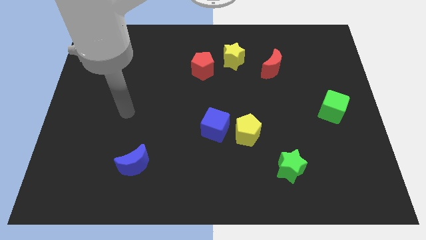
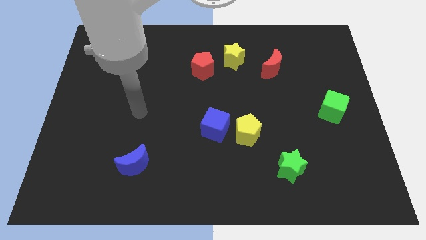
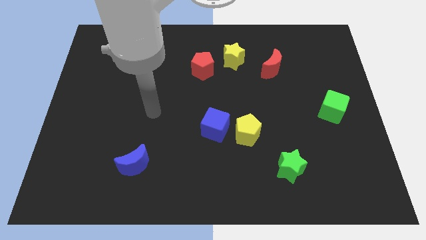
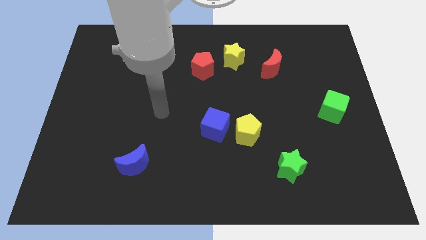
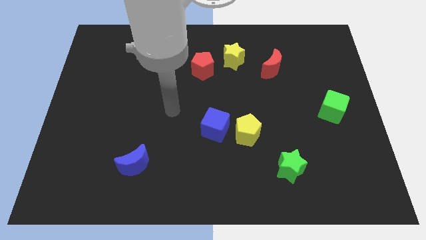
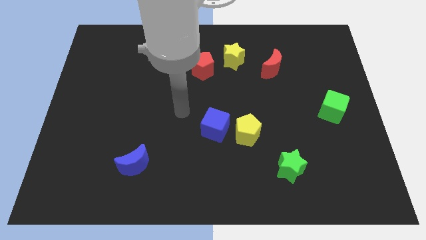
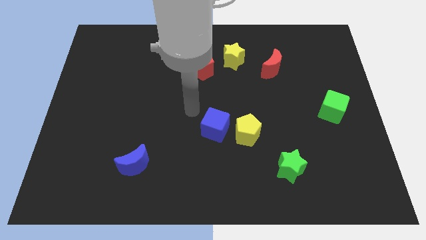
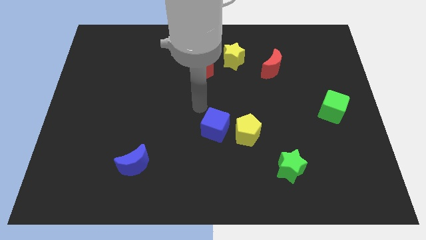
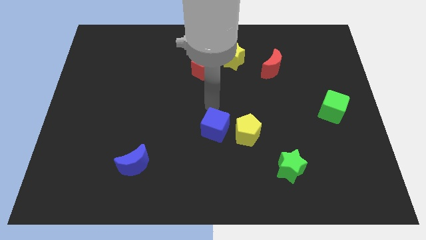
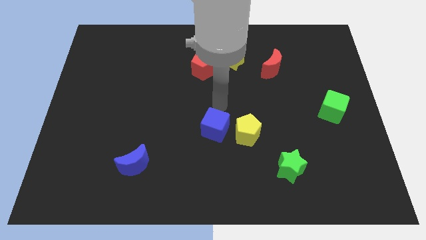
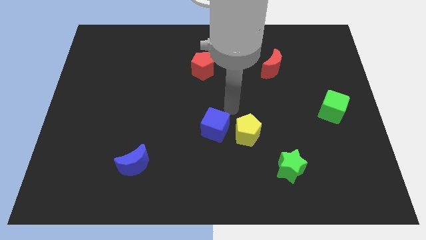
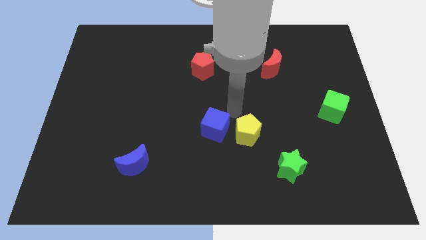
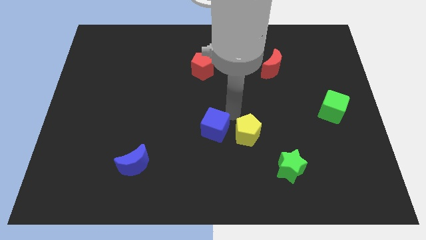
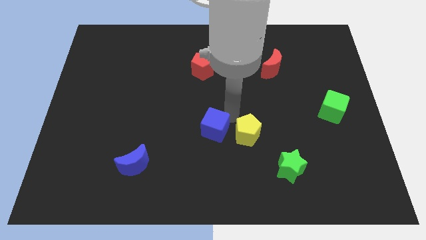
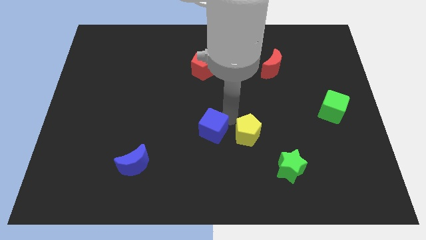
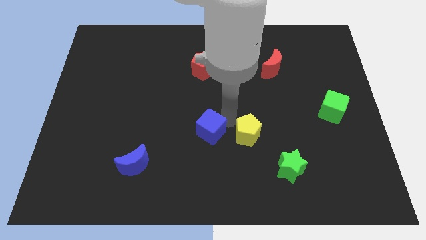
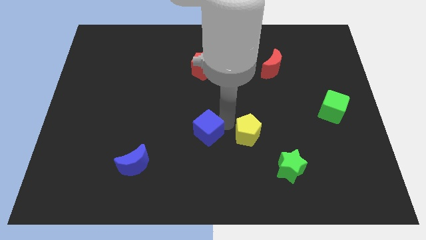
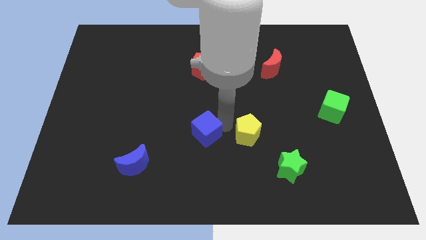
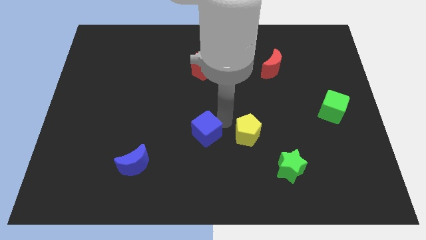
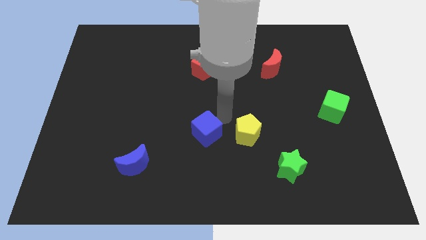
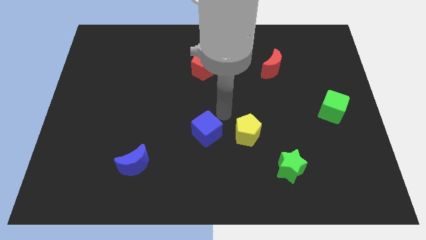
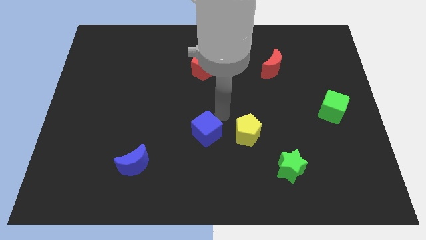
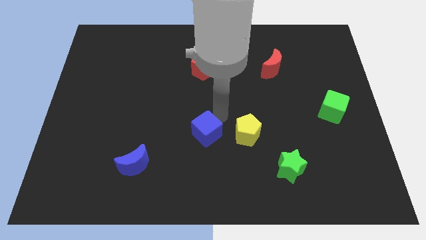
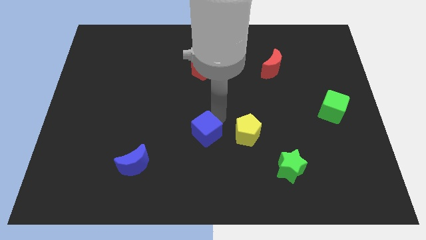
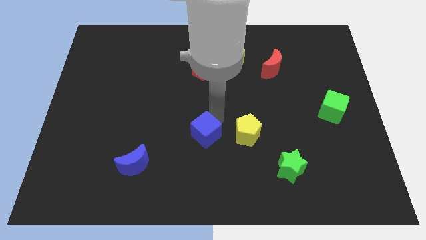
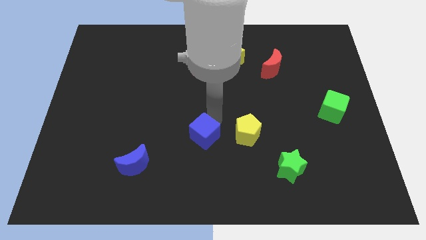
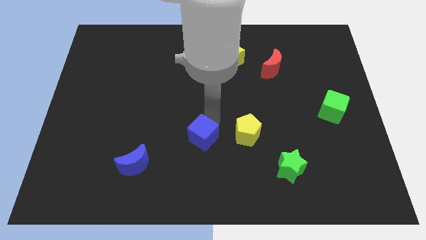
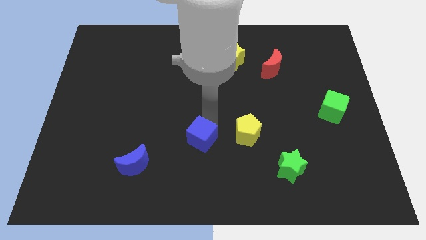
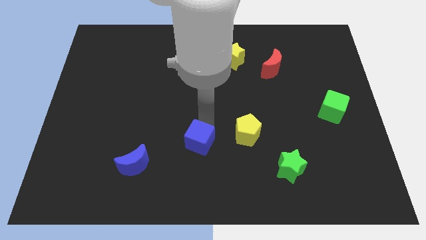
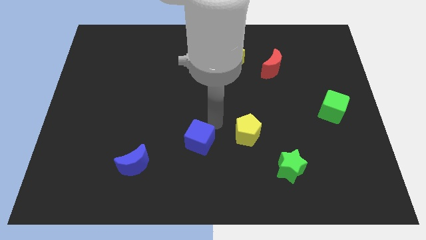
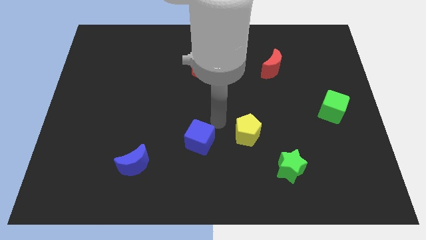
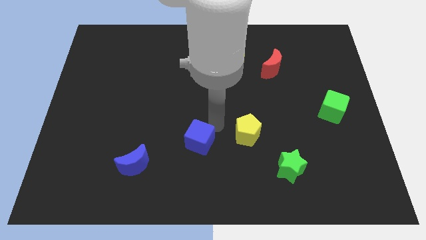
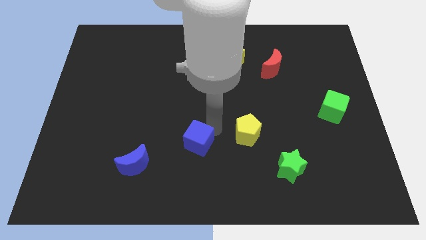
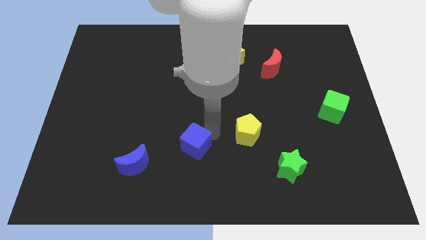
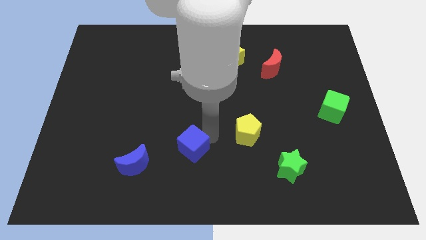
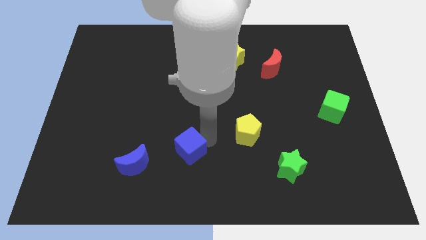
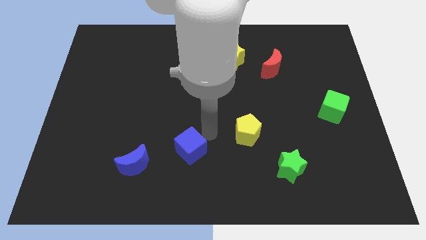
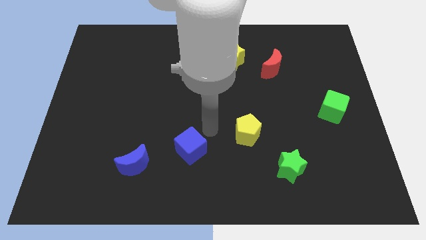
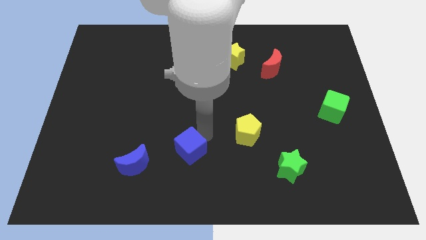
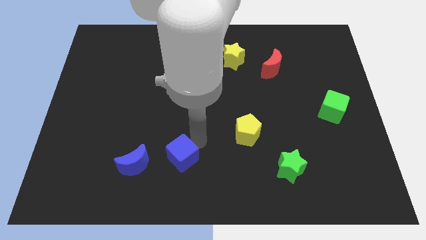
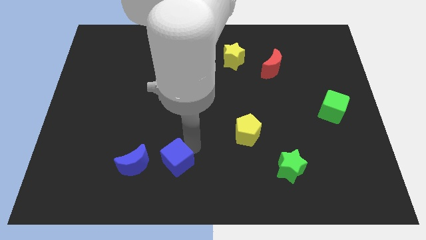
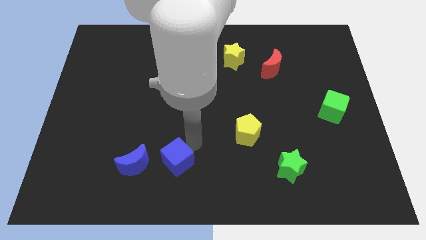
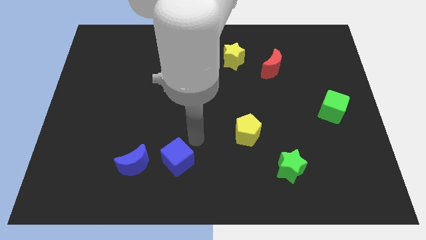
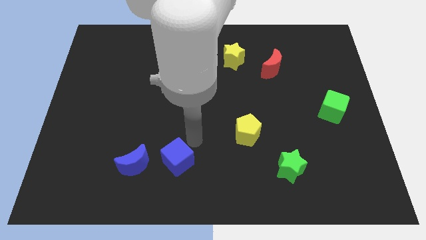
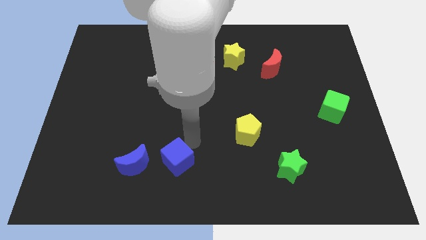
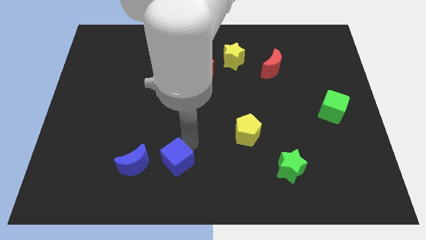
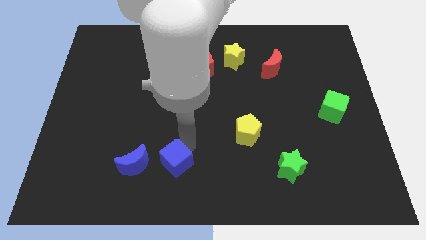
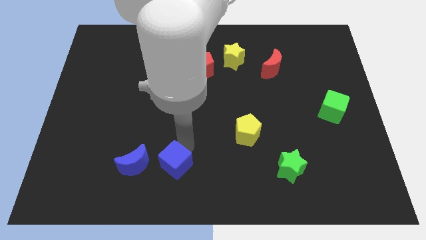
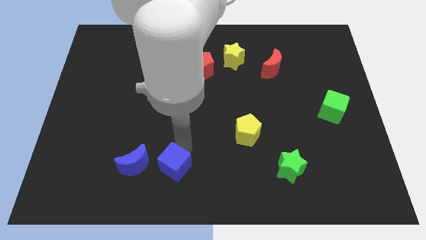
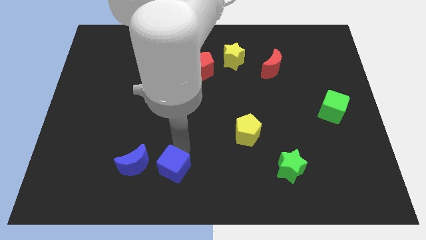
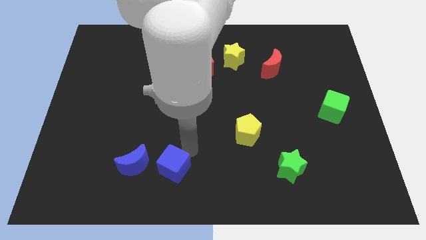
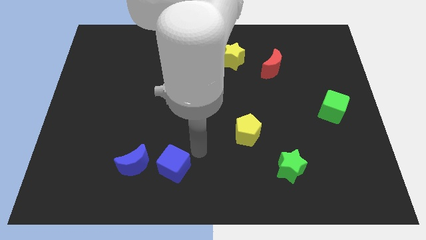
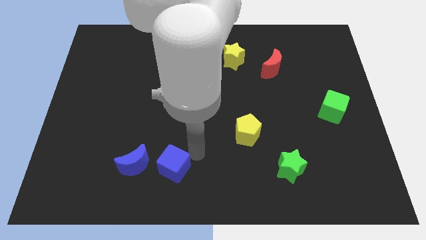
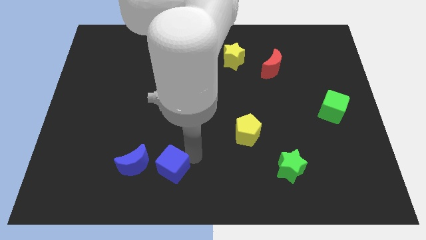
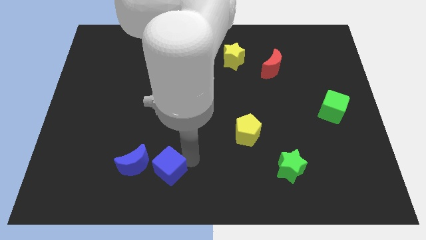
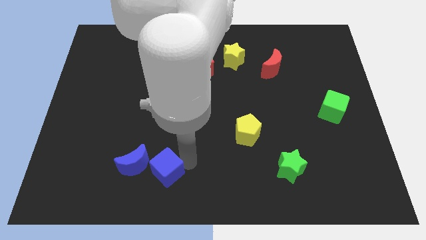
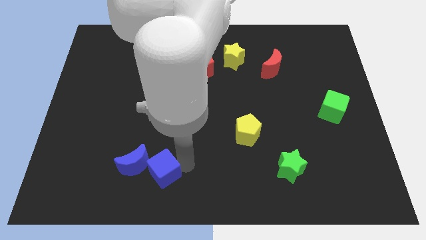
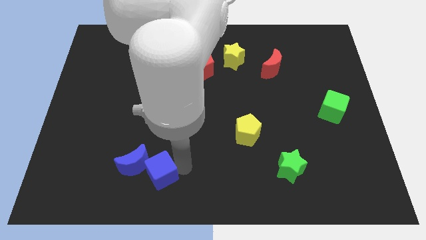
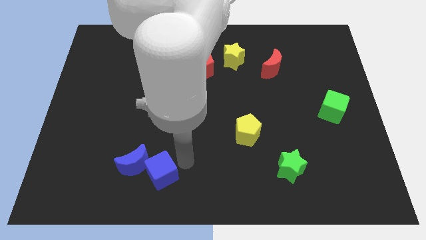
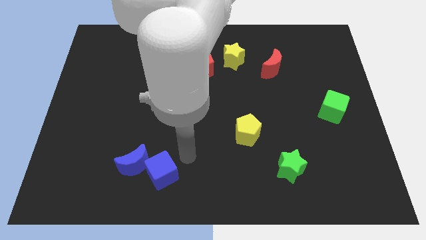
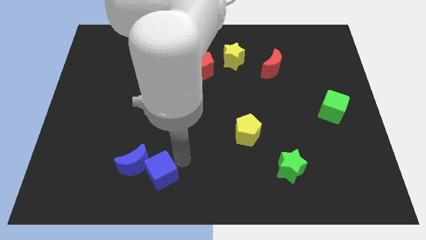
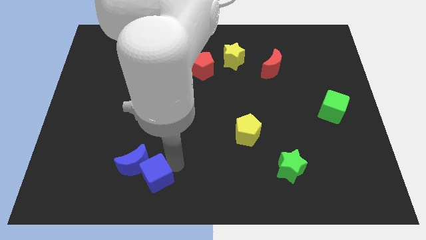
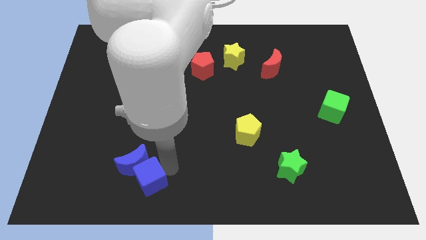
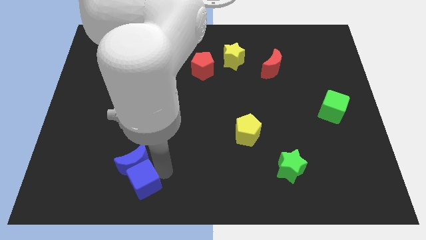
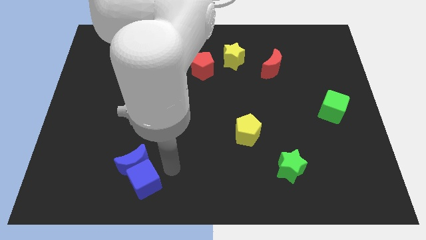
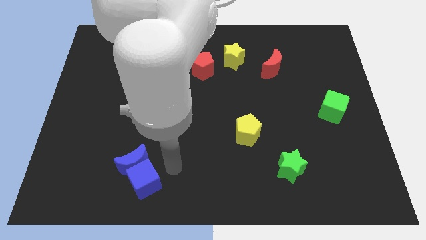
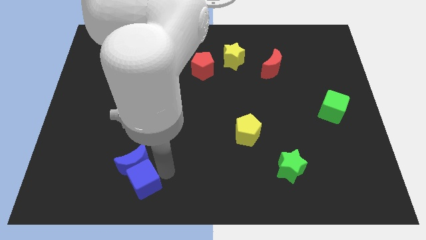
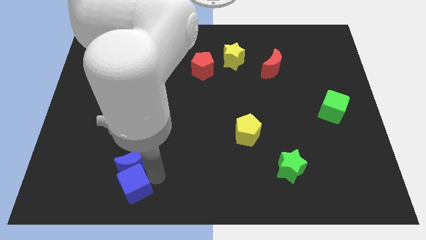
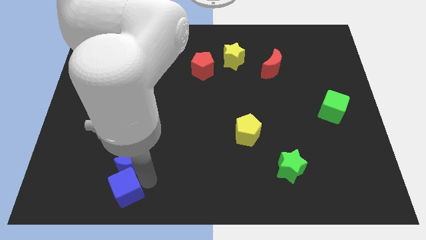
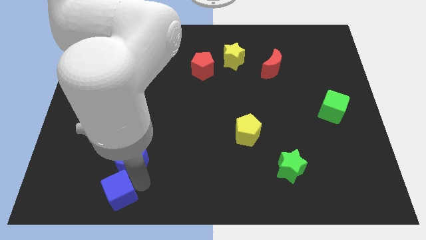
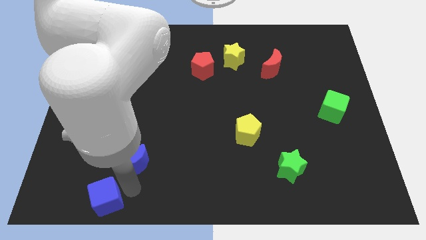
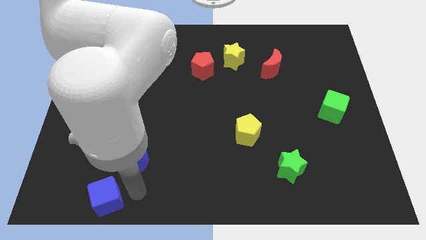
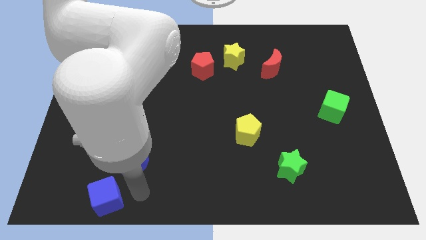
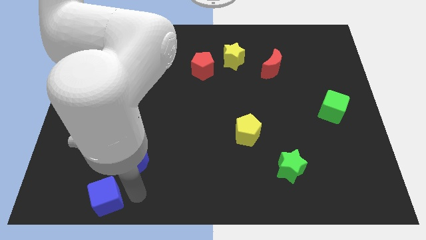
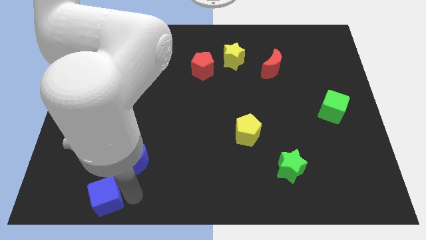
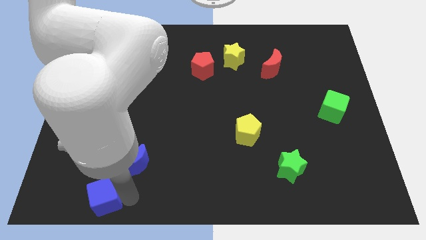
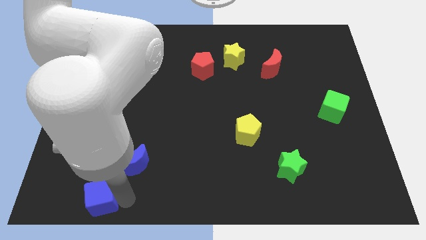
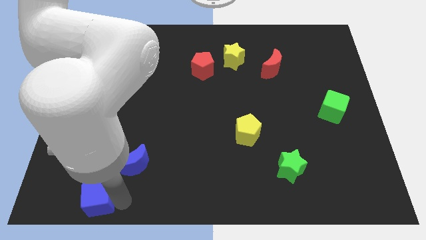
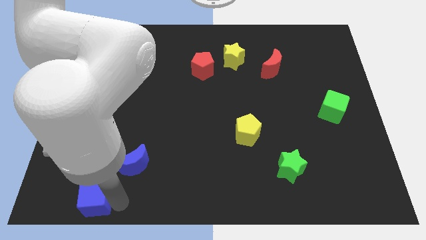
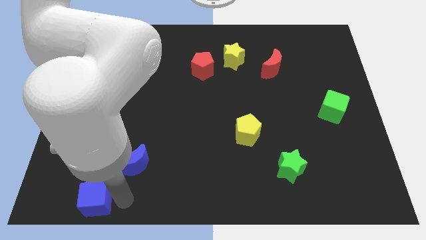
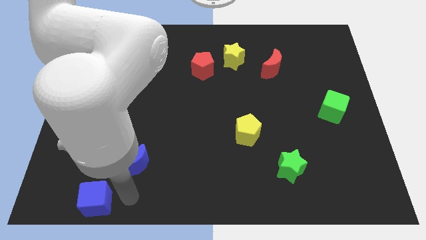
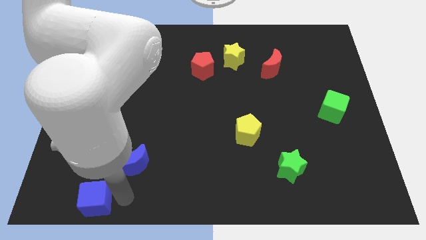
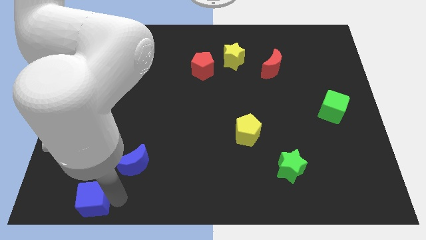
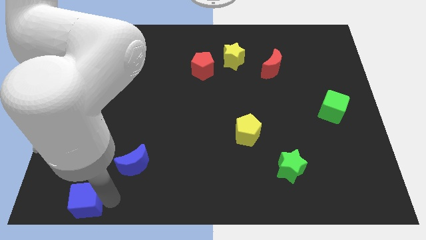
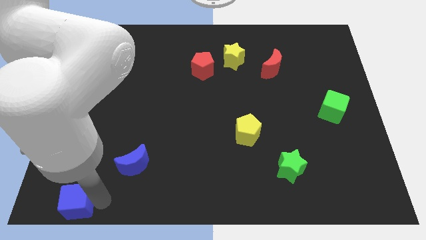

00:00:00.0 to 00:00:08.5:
push the blue cube to the lower left corner
